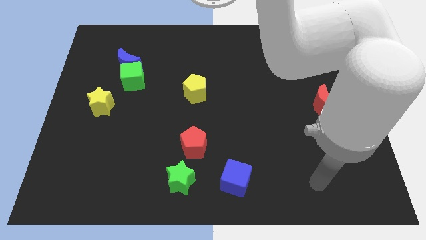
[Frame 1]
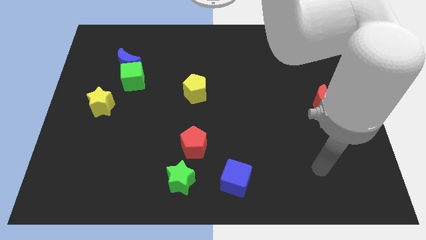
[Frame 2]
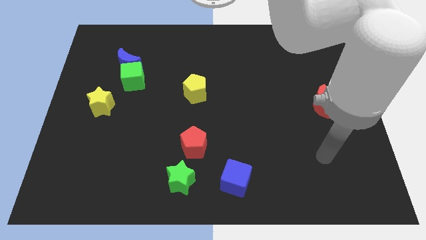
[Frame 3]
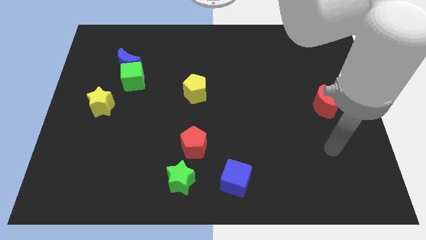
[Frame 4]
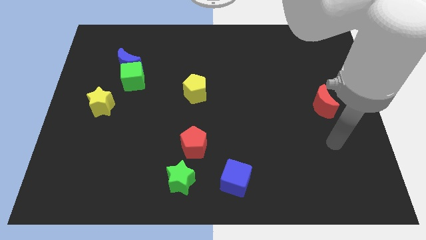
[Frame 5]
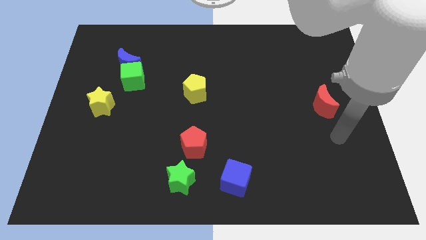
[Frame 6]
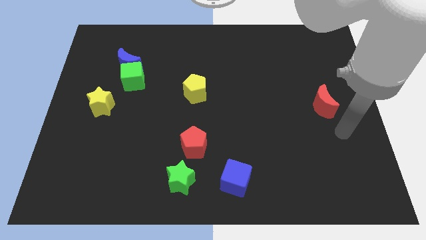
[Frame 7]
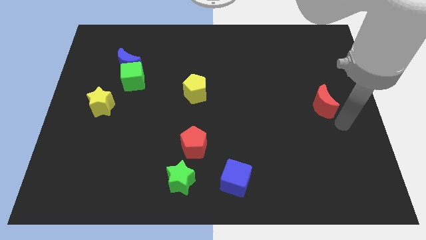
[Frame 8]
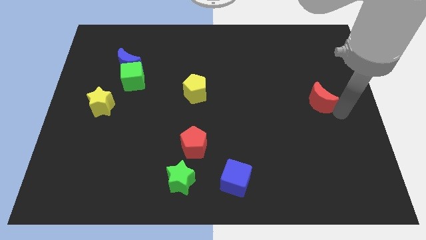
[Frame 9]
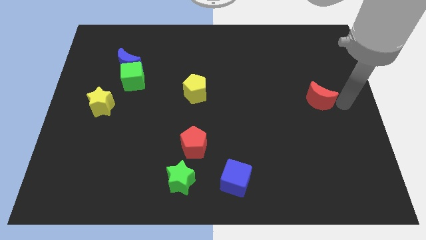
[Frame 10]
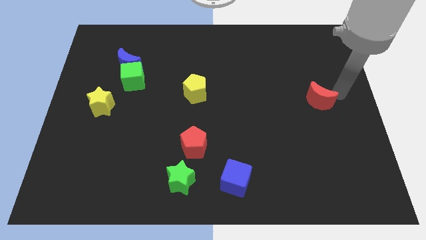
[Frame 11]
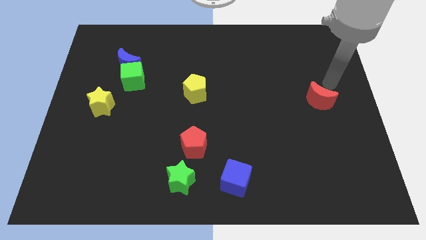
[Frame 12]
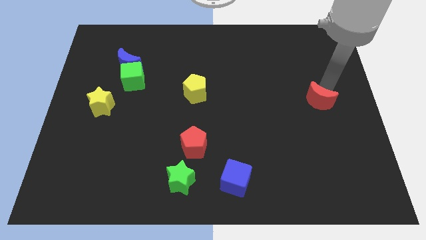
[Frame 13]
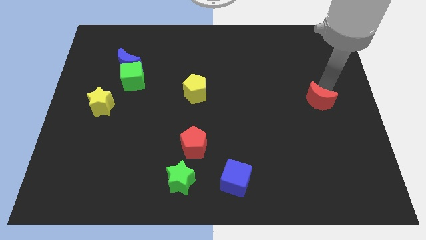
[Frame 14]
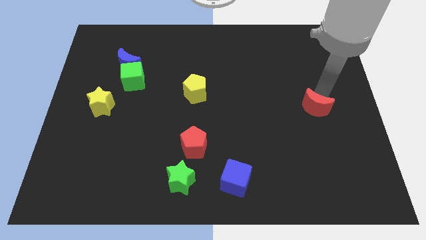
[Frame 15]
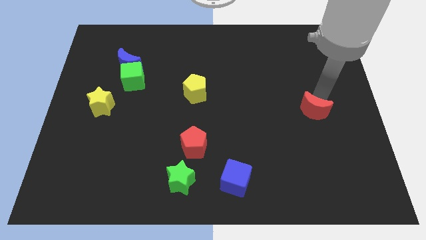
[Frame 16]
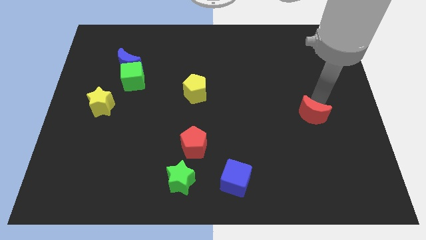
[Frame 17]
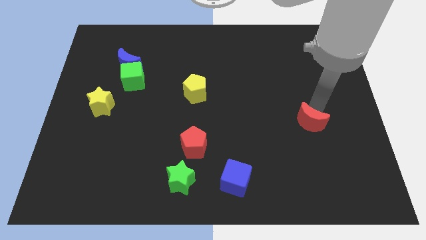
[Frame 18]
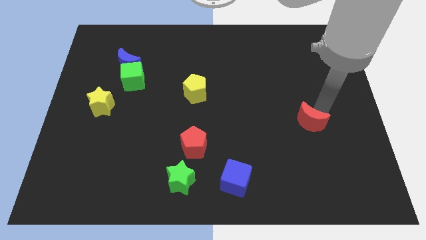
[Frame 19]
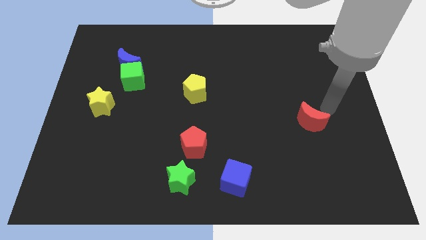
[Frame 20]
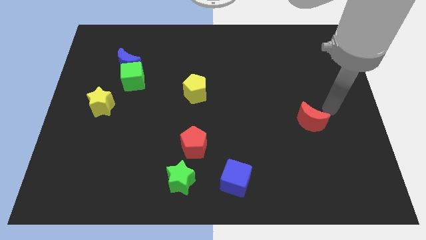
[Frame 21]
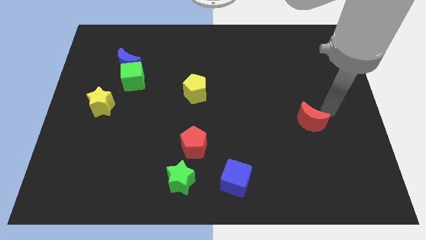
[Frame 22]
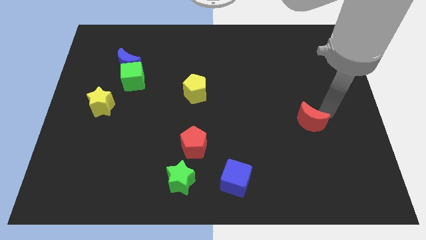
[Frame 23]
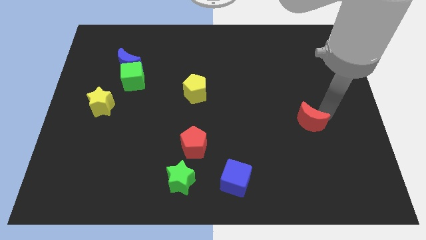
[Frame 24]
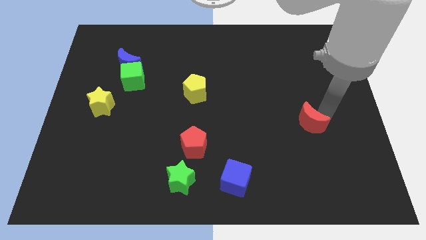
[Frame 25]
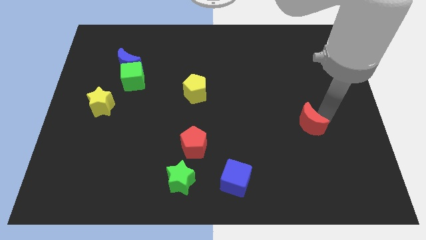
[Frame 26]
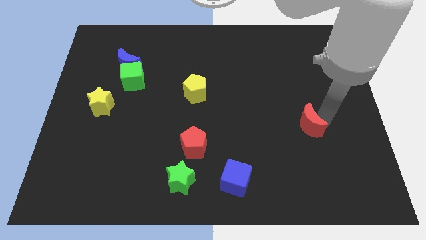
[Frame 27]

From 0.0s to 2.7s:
move the red moon diagonally downwards and left somewhat

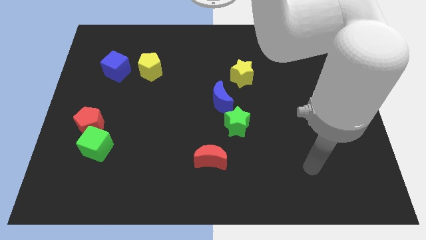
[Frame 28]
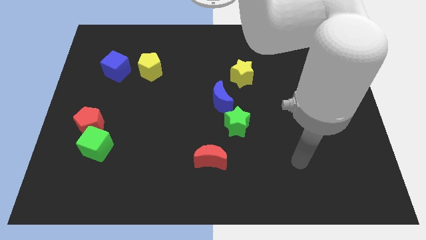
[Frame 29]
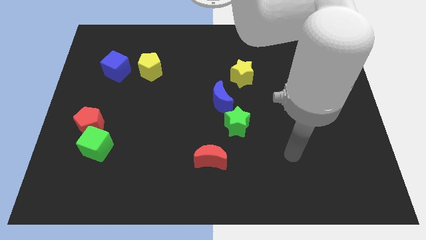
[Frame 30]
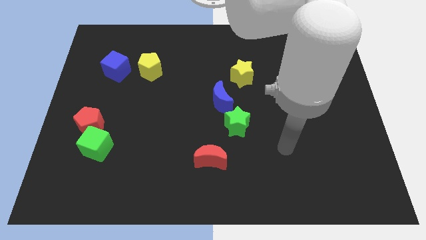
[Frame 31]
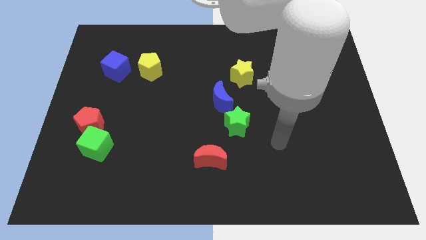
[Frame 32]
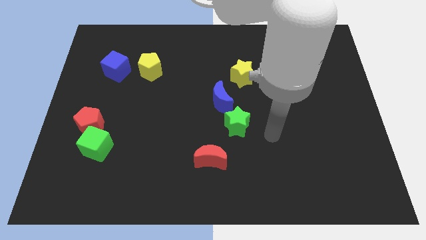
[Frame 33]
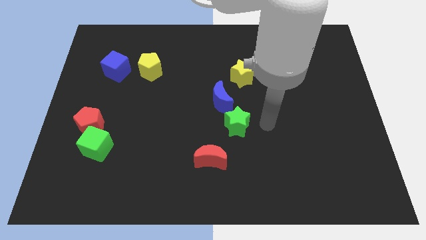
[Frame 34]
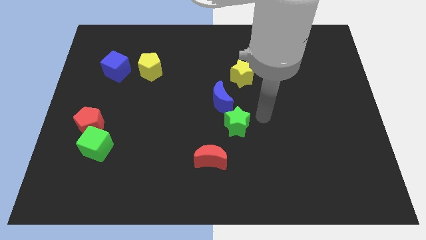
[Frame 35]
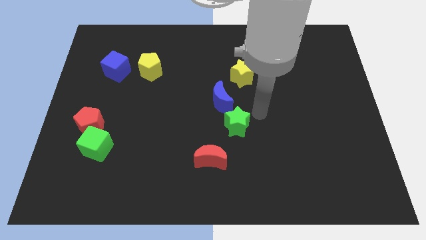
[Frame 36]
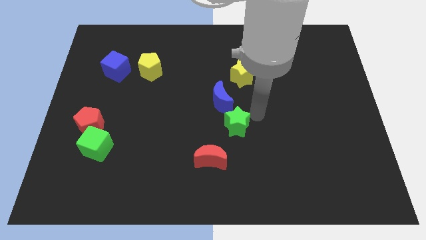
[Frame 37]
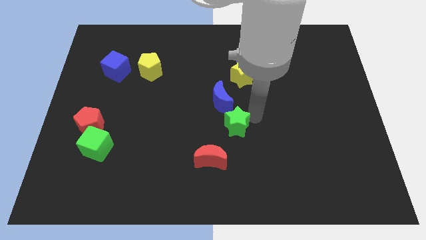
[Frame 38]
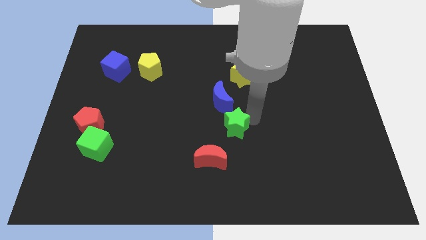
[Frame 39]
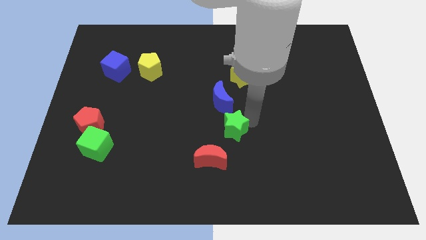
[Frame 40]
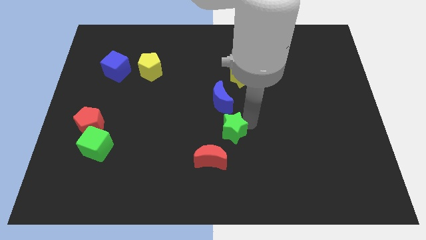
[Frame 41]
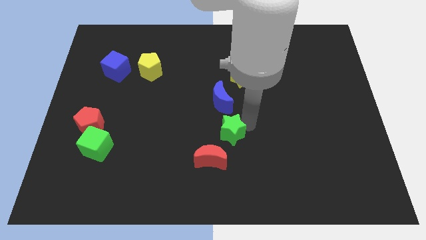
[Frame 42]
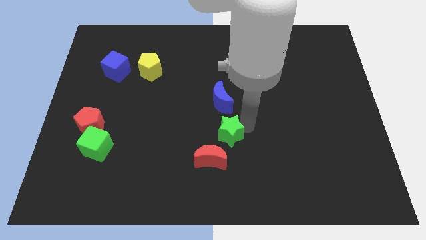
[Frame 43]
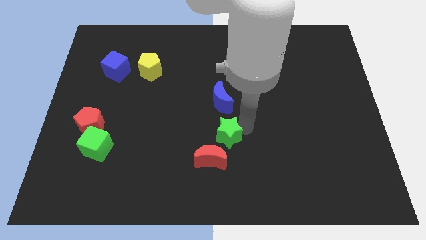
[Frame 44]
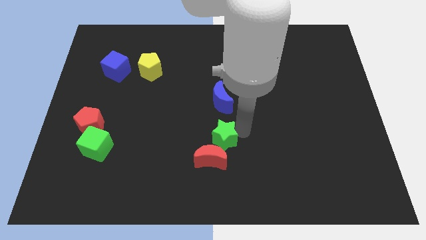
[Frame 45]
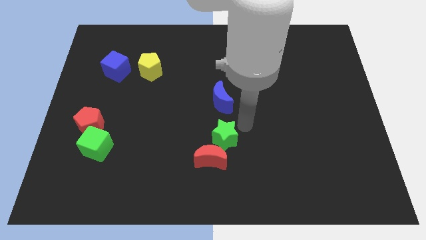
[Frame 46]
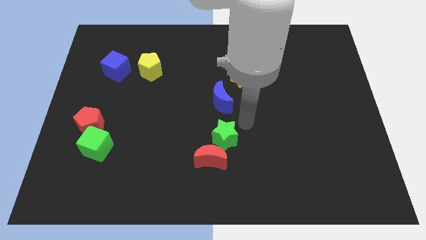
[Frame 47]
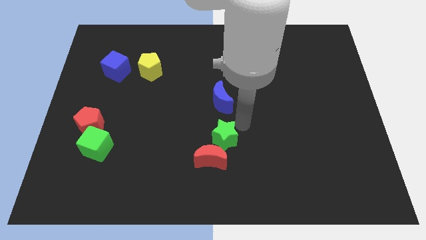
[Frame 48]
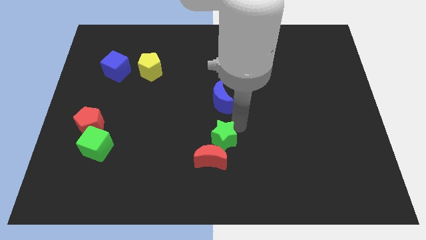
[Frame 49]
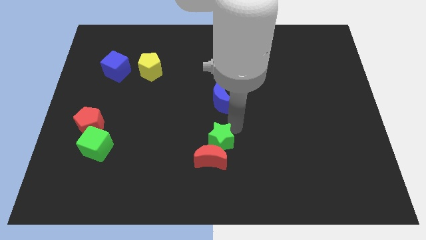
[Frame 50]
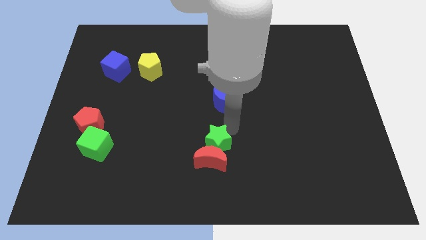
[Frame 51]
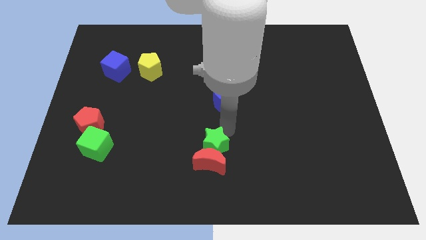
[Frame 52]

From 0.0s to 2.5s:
move the green star down and to the left somewhat

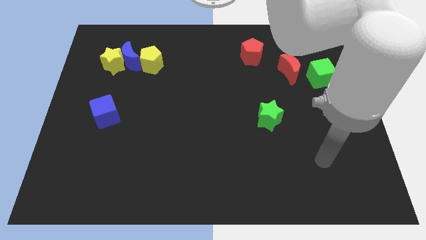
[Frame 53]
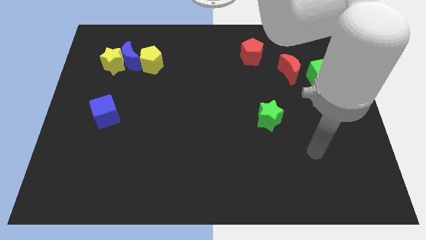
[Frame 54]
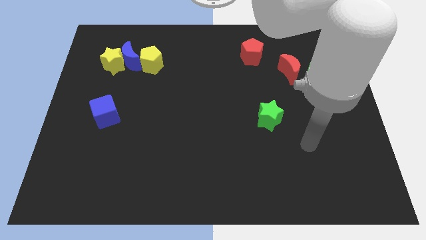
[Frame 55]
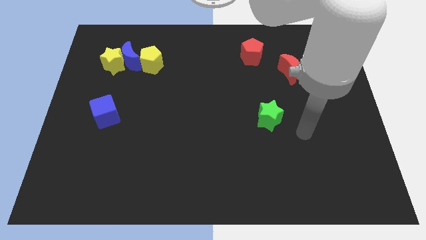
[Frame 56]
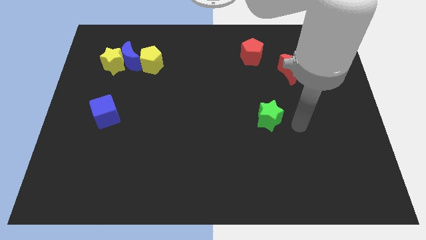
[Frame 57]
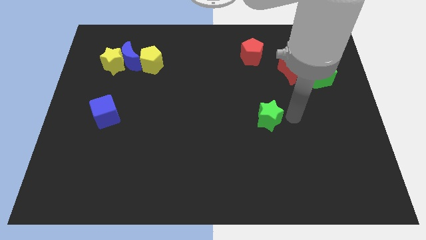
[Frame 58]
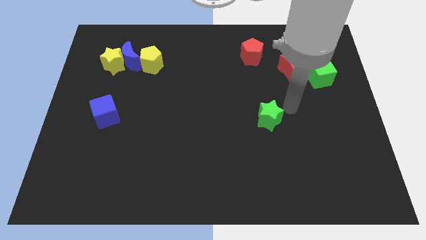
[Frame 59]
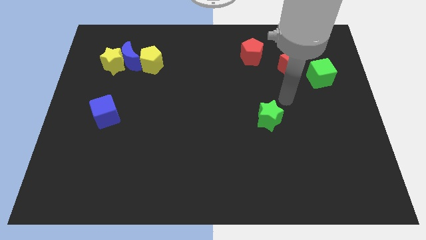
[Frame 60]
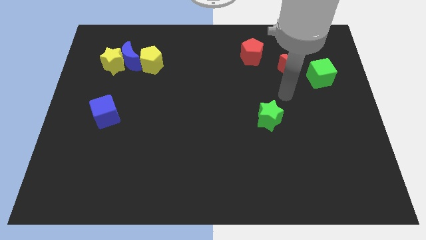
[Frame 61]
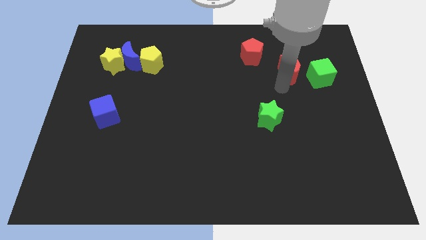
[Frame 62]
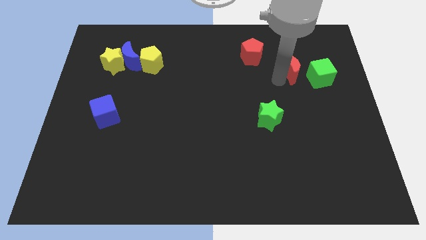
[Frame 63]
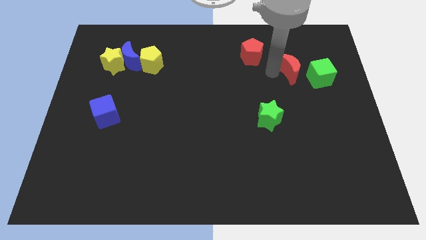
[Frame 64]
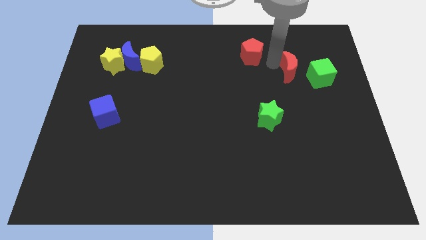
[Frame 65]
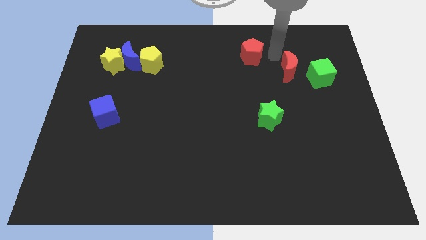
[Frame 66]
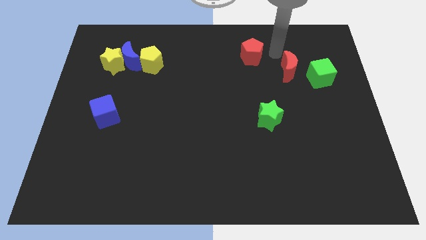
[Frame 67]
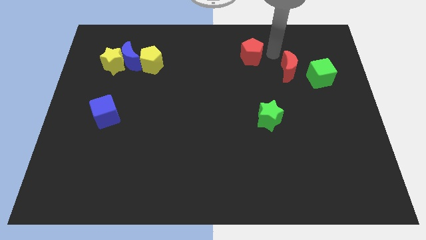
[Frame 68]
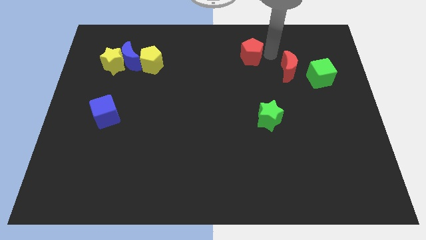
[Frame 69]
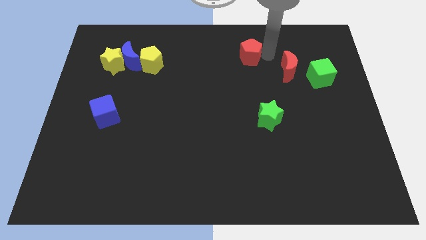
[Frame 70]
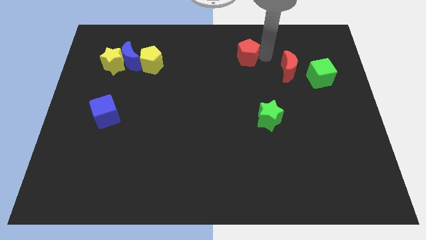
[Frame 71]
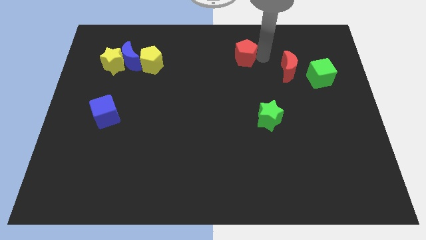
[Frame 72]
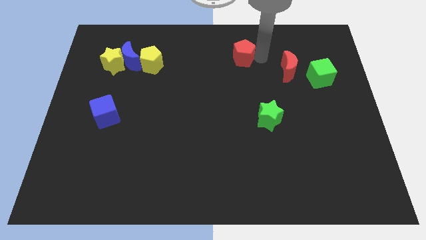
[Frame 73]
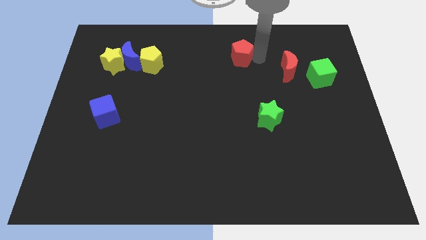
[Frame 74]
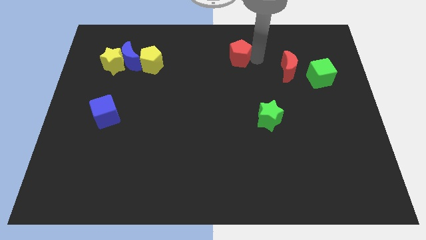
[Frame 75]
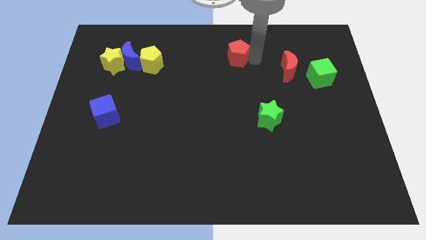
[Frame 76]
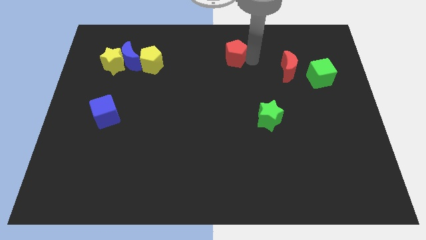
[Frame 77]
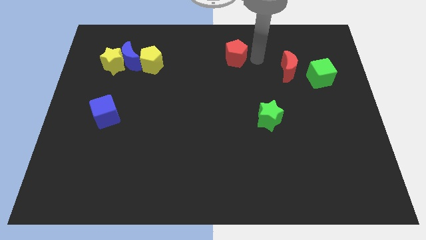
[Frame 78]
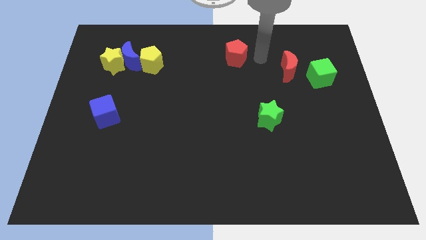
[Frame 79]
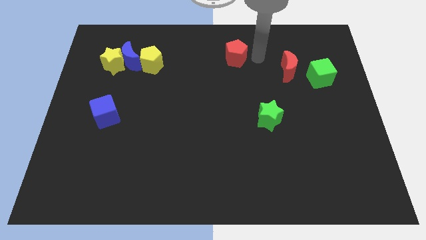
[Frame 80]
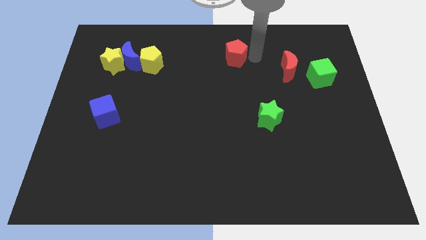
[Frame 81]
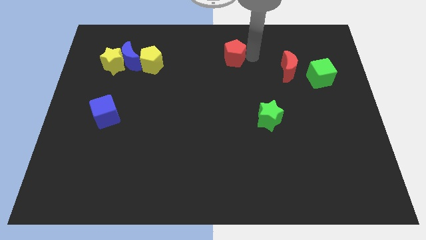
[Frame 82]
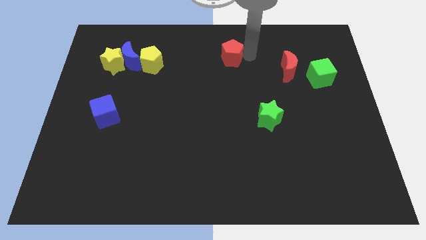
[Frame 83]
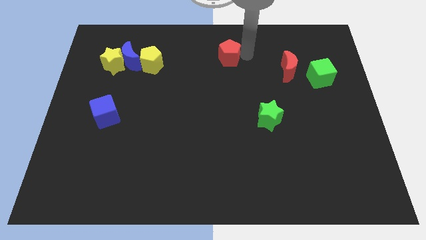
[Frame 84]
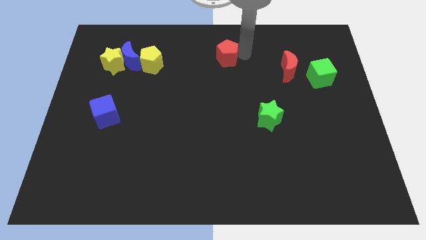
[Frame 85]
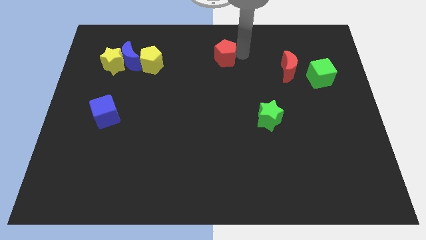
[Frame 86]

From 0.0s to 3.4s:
push the red pentagon to the left somewhat
